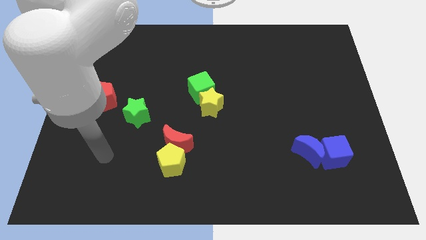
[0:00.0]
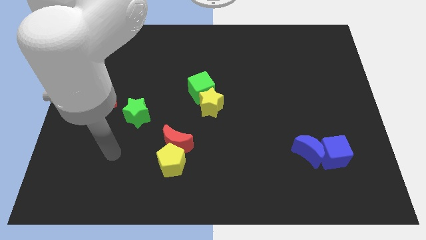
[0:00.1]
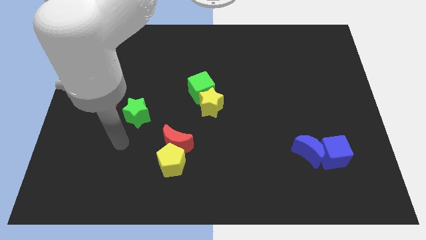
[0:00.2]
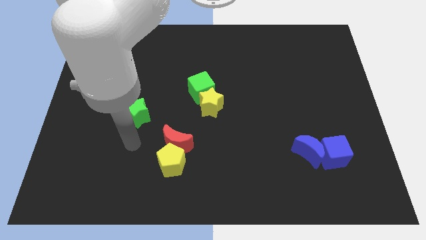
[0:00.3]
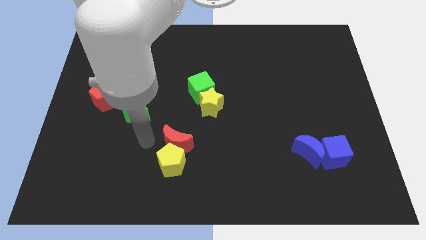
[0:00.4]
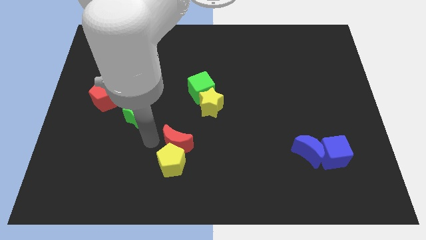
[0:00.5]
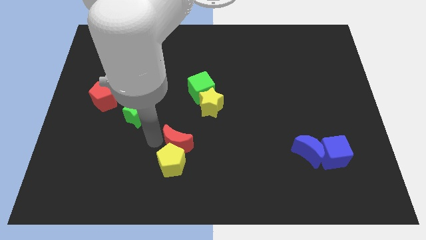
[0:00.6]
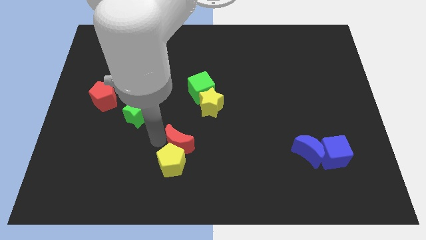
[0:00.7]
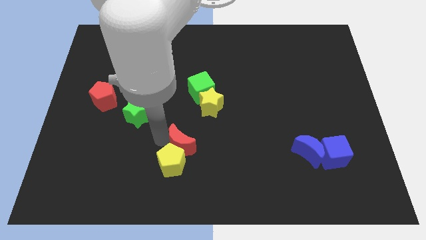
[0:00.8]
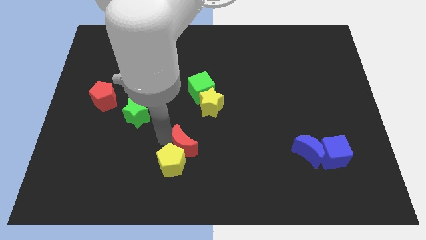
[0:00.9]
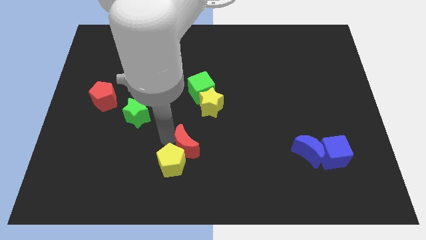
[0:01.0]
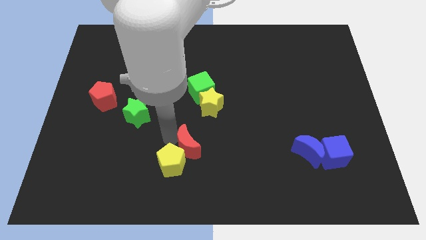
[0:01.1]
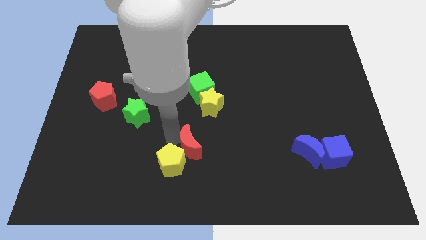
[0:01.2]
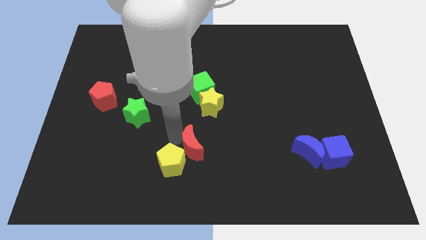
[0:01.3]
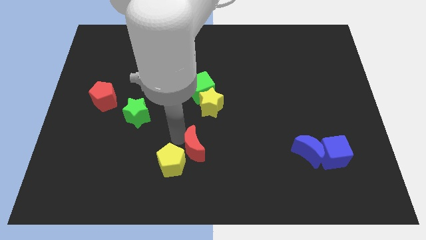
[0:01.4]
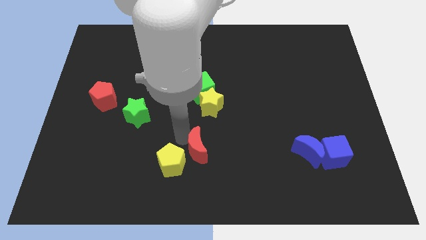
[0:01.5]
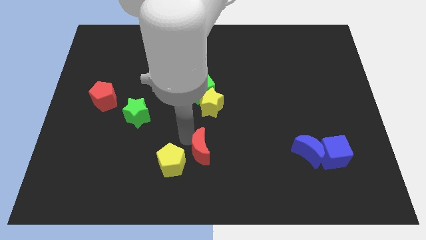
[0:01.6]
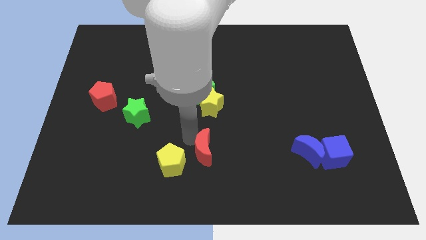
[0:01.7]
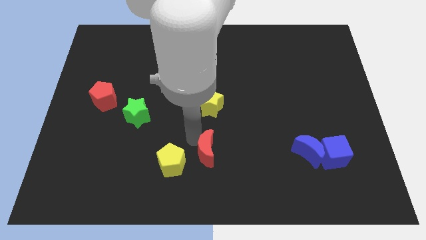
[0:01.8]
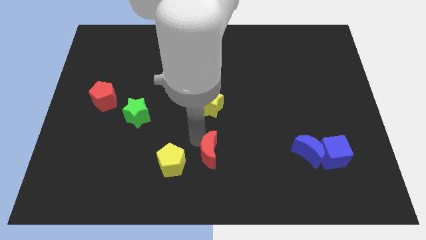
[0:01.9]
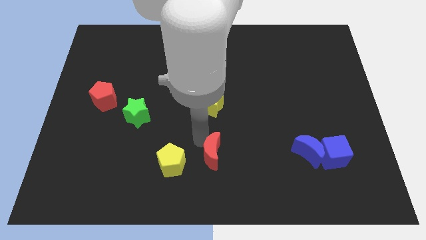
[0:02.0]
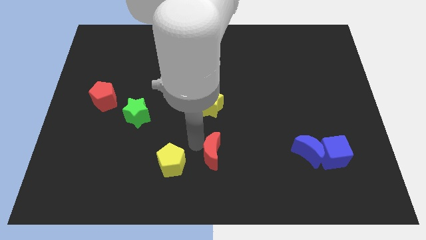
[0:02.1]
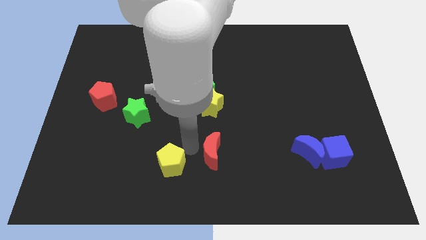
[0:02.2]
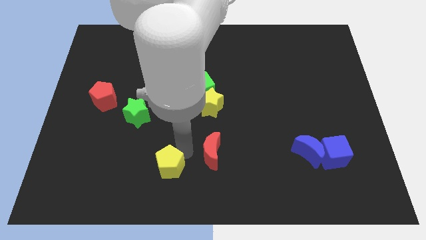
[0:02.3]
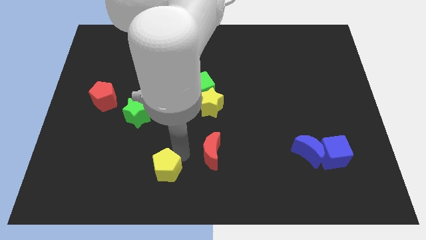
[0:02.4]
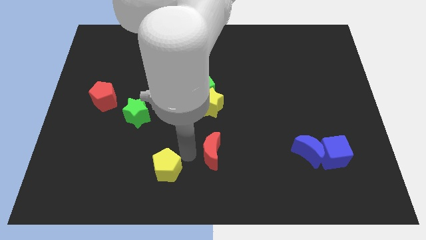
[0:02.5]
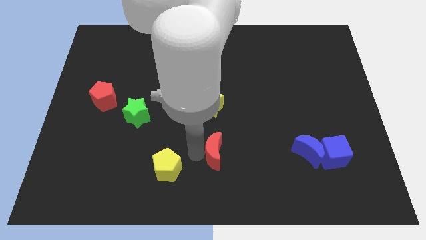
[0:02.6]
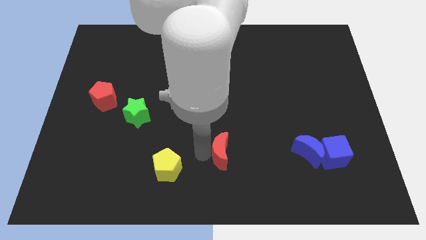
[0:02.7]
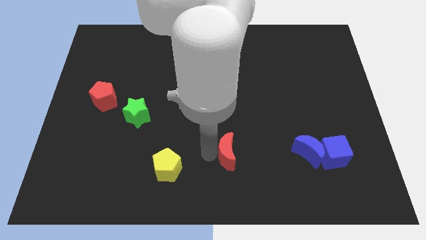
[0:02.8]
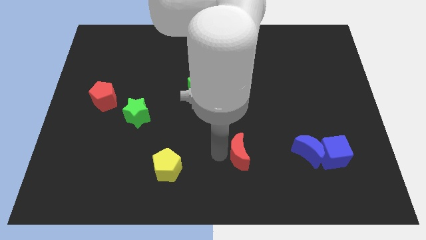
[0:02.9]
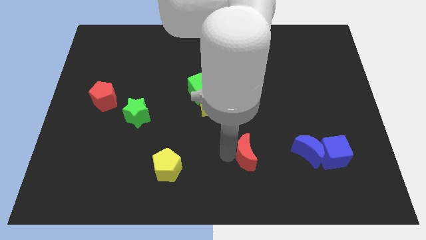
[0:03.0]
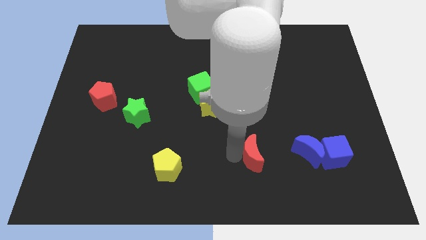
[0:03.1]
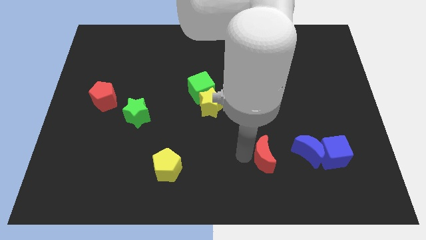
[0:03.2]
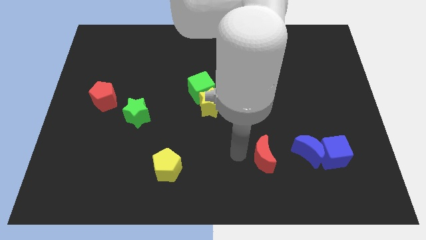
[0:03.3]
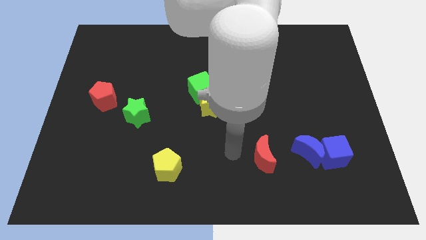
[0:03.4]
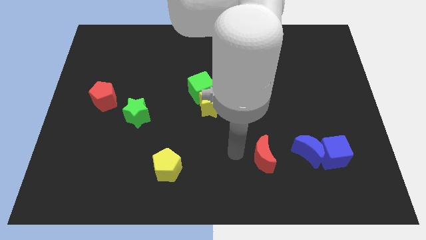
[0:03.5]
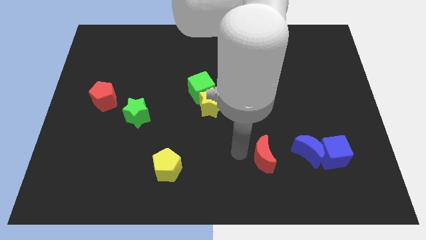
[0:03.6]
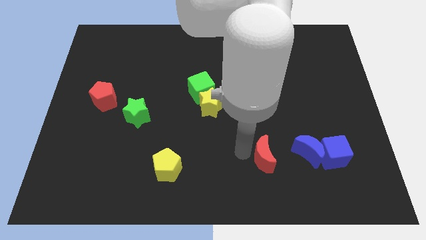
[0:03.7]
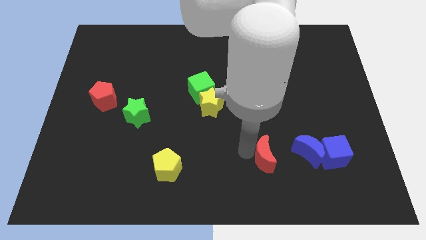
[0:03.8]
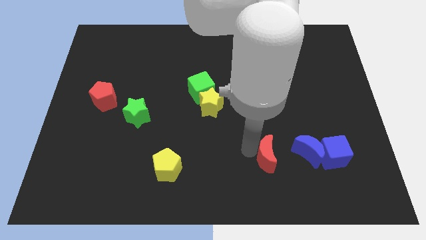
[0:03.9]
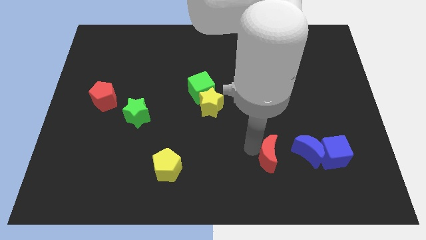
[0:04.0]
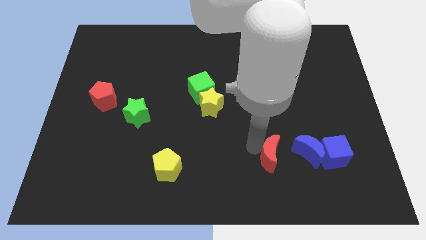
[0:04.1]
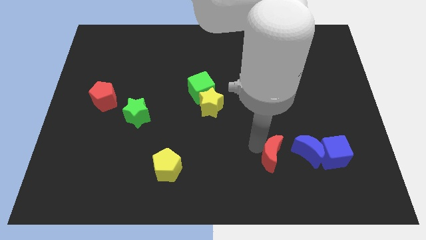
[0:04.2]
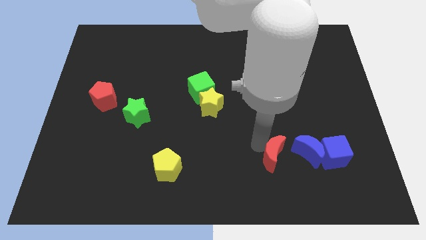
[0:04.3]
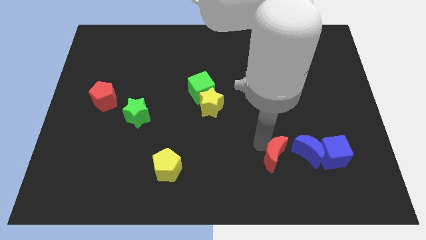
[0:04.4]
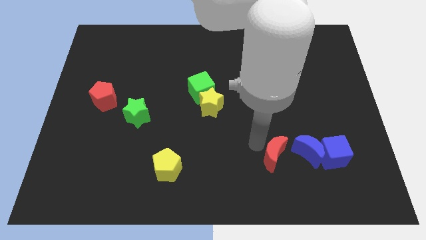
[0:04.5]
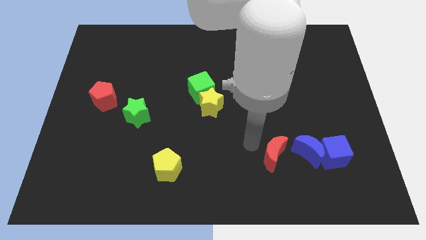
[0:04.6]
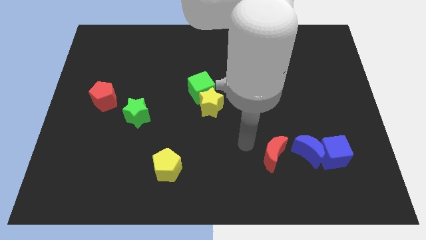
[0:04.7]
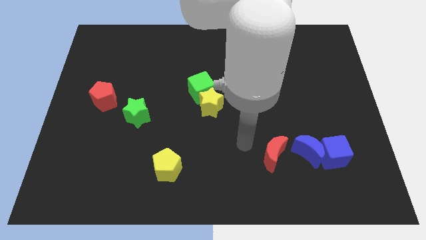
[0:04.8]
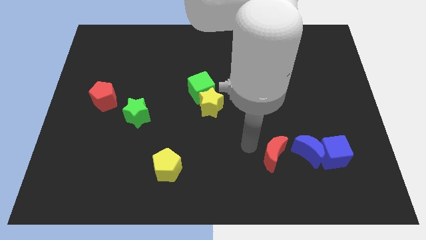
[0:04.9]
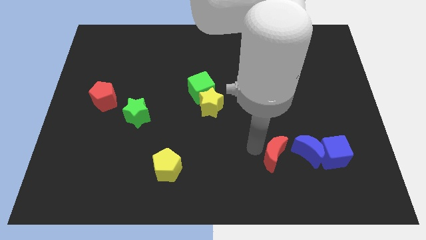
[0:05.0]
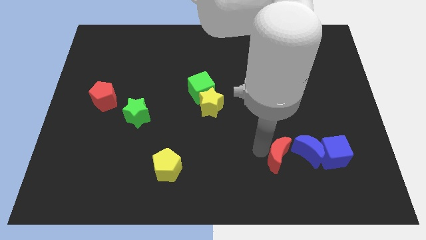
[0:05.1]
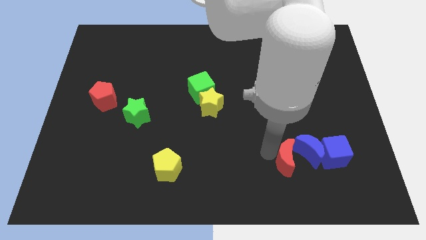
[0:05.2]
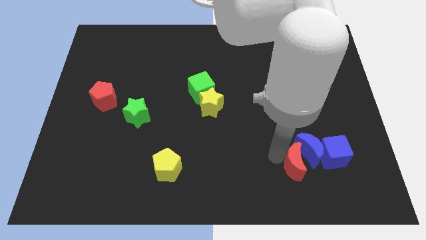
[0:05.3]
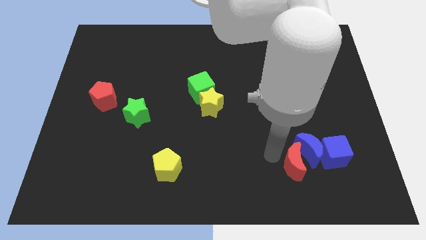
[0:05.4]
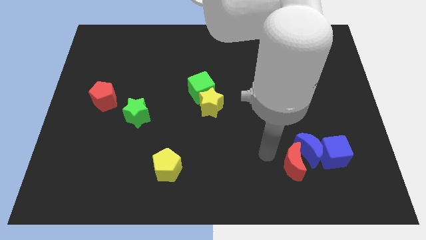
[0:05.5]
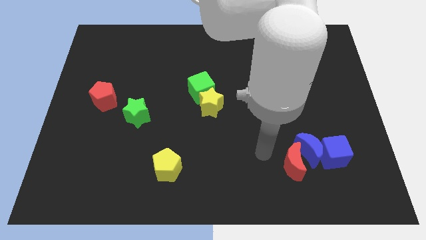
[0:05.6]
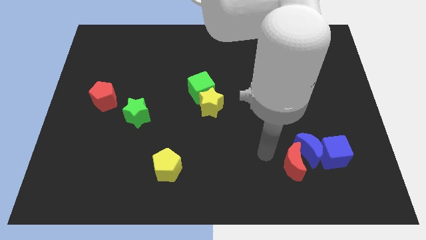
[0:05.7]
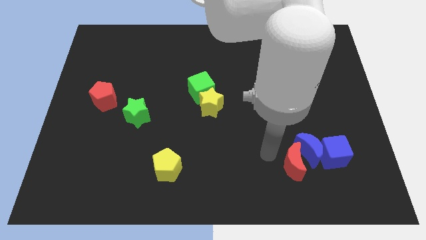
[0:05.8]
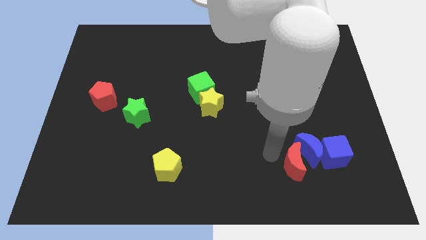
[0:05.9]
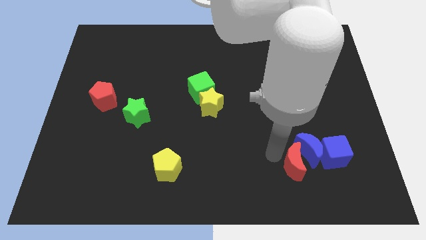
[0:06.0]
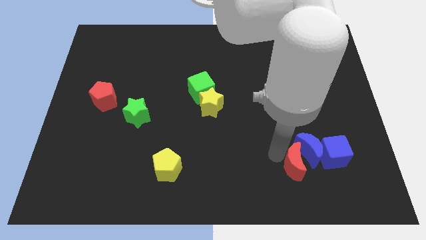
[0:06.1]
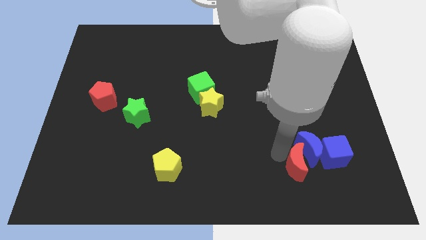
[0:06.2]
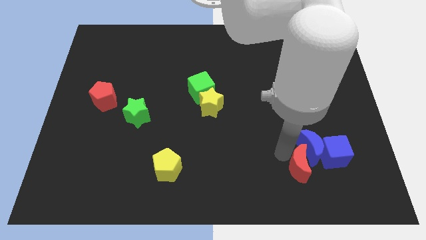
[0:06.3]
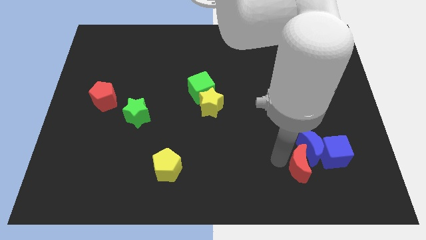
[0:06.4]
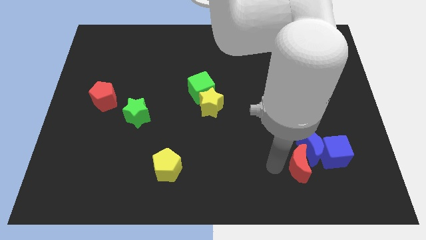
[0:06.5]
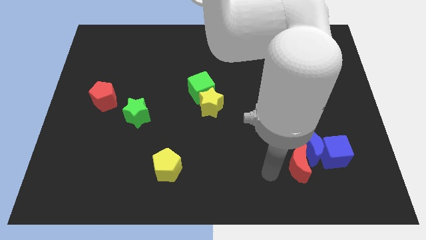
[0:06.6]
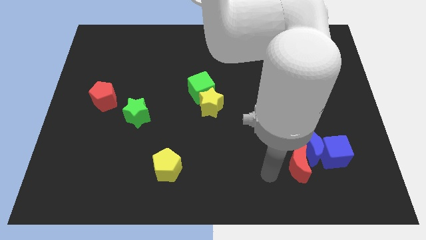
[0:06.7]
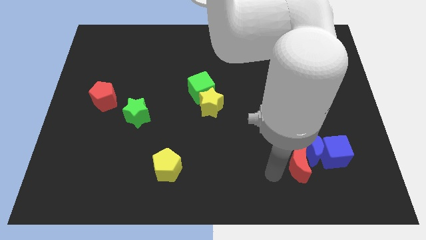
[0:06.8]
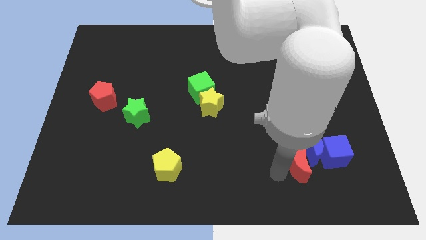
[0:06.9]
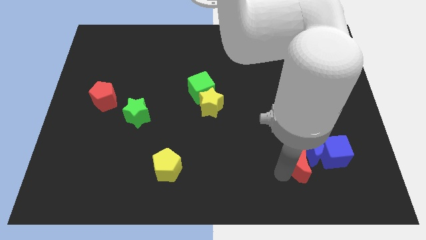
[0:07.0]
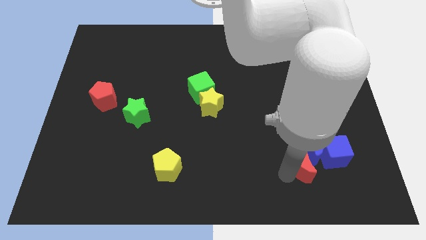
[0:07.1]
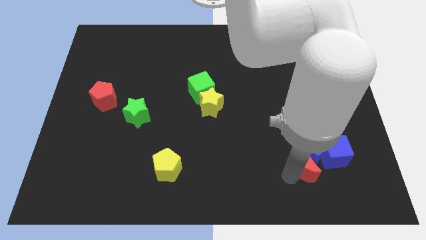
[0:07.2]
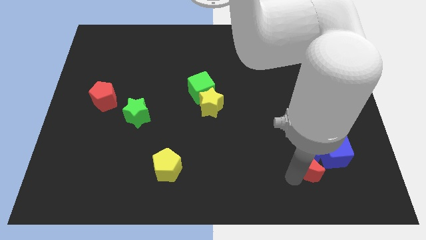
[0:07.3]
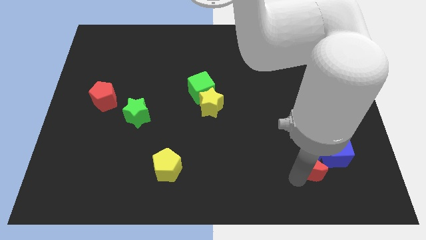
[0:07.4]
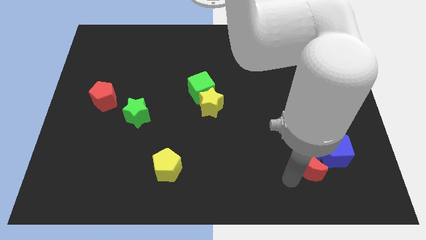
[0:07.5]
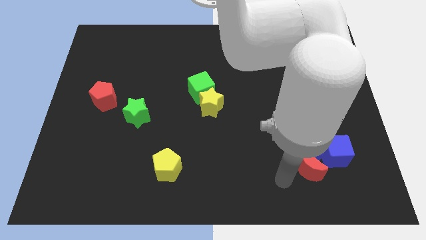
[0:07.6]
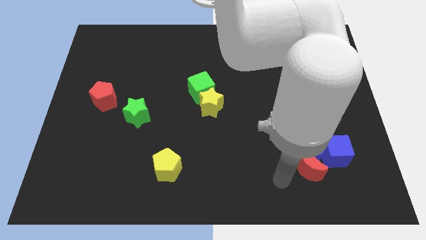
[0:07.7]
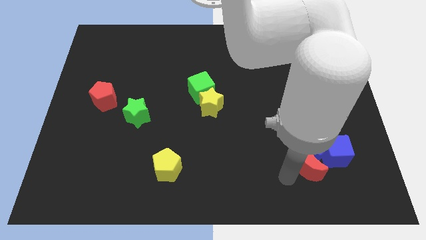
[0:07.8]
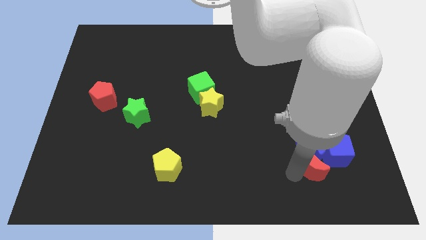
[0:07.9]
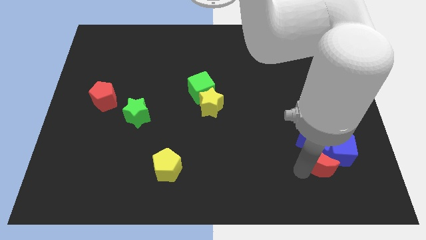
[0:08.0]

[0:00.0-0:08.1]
move the red moon towards the blue cube
